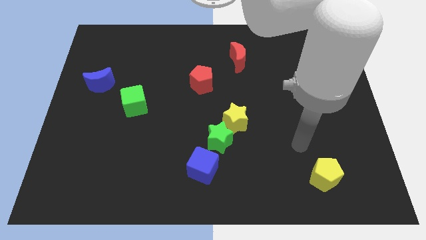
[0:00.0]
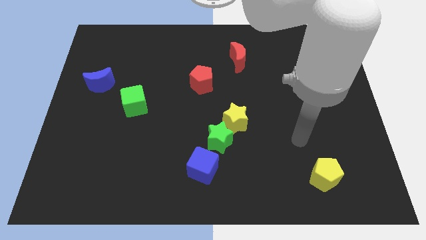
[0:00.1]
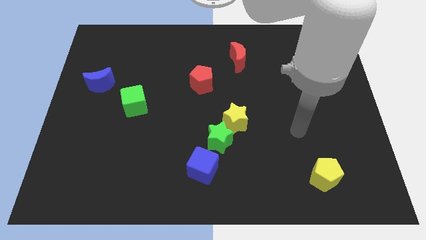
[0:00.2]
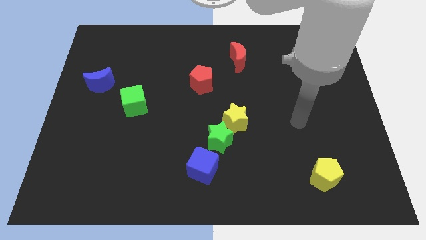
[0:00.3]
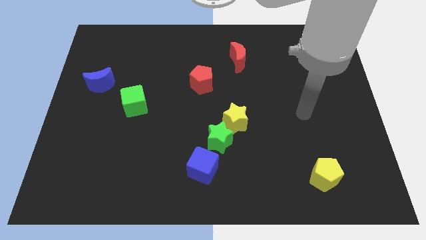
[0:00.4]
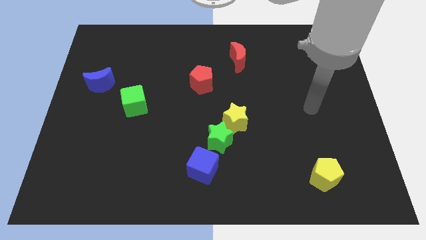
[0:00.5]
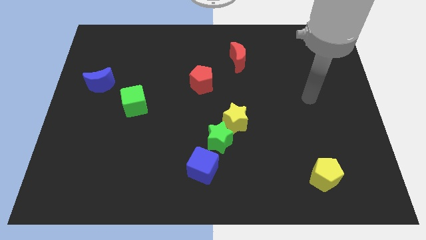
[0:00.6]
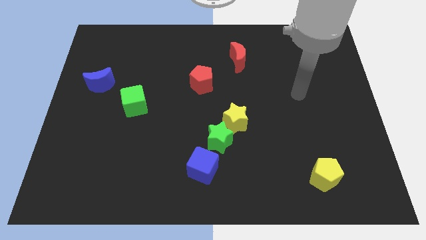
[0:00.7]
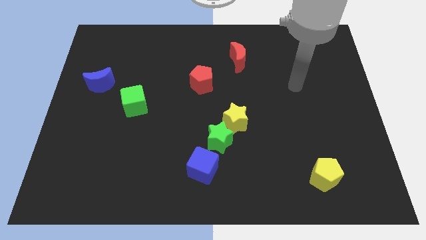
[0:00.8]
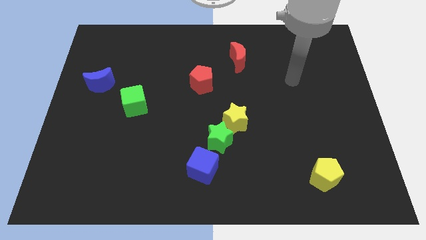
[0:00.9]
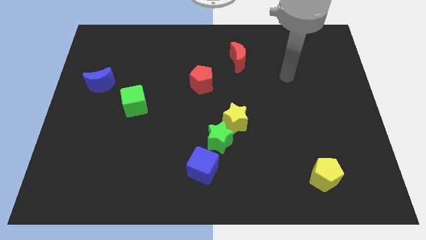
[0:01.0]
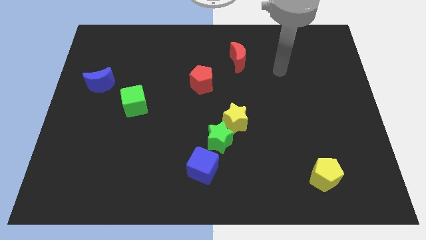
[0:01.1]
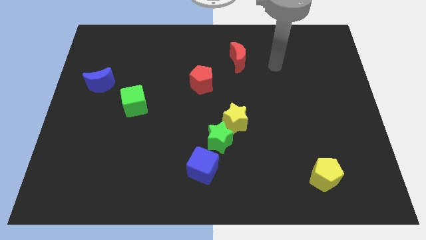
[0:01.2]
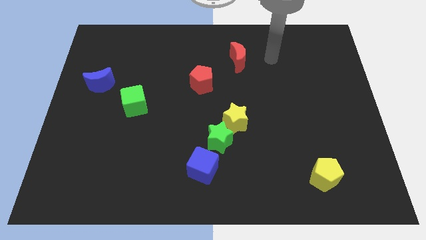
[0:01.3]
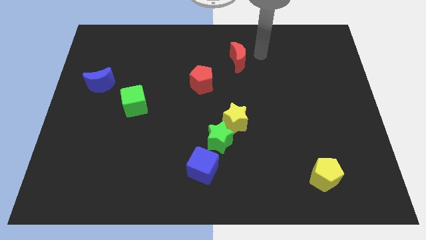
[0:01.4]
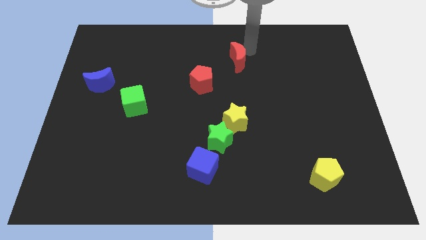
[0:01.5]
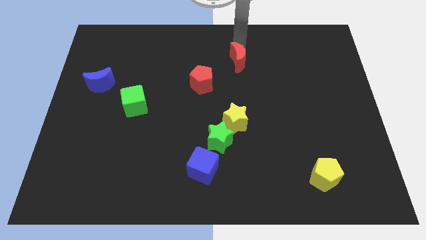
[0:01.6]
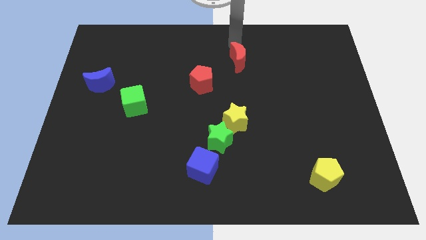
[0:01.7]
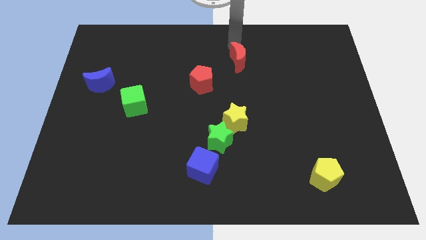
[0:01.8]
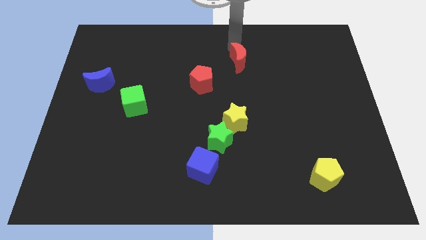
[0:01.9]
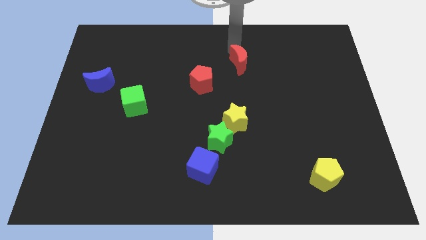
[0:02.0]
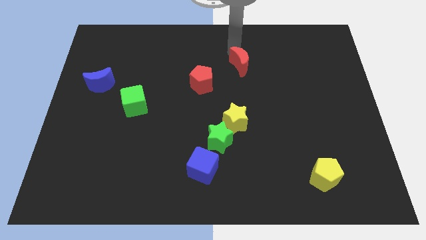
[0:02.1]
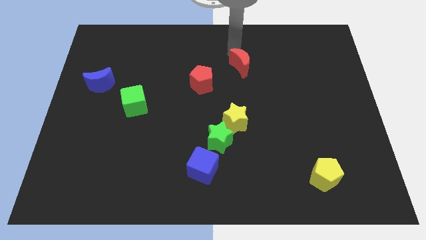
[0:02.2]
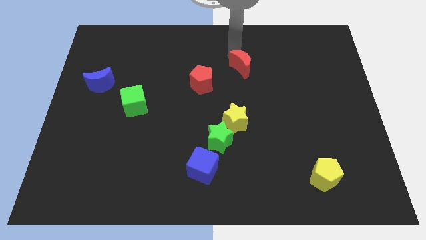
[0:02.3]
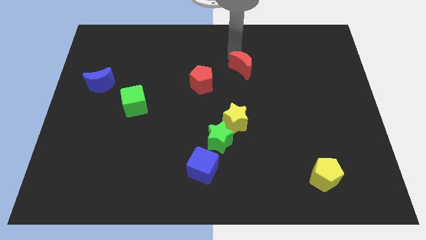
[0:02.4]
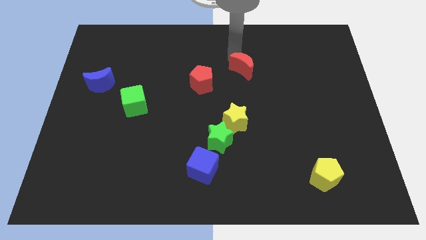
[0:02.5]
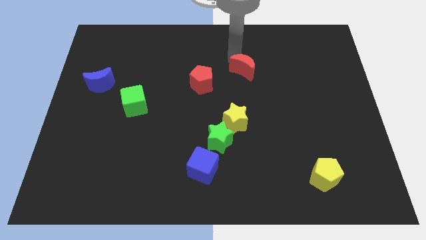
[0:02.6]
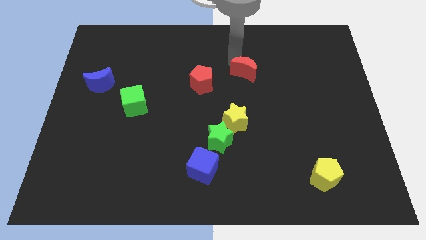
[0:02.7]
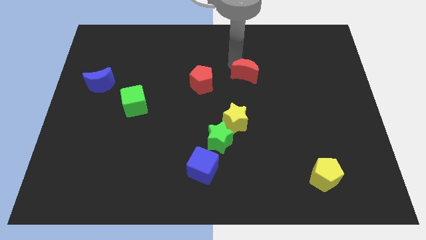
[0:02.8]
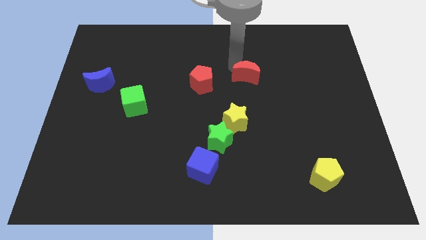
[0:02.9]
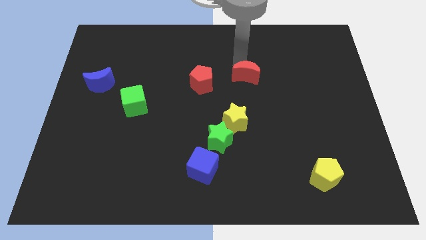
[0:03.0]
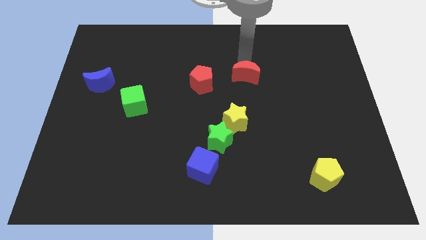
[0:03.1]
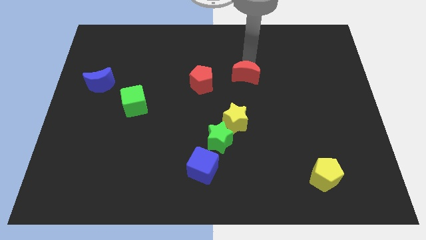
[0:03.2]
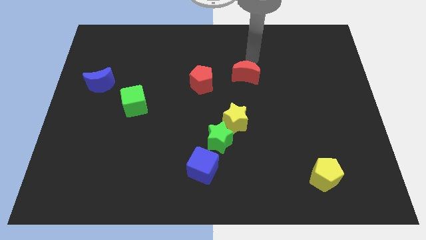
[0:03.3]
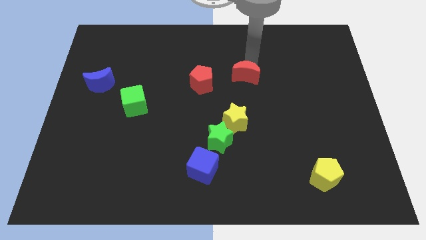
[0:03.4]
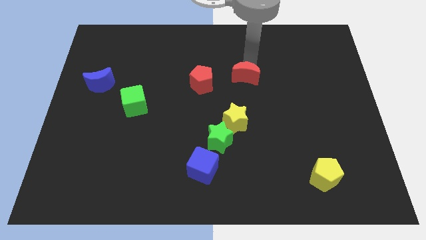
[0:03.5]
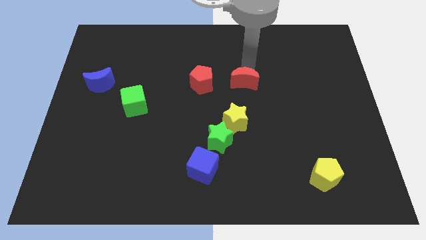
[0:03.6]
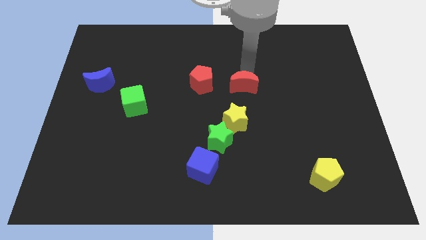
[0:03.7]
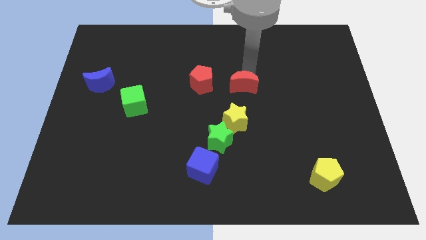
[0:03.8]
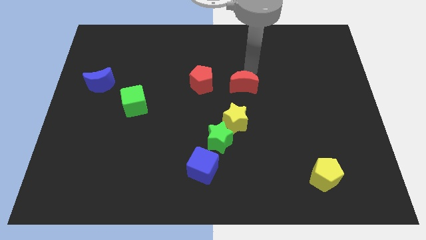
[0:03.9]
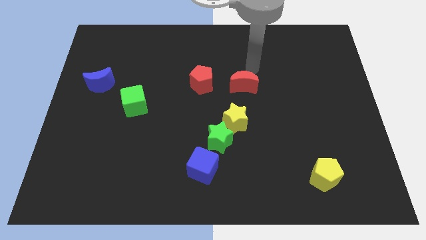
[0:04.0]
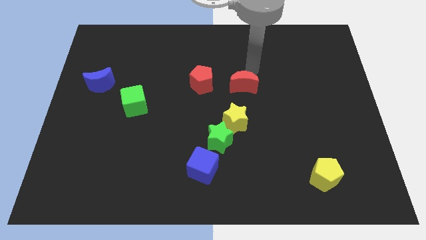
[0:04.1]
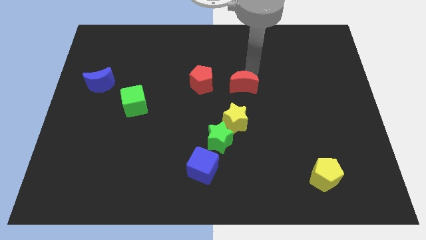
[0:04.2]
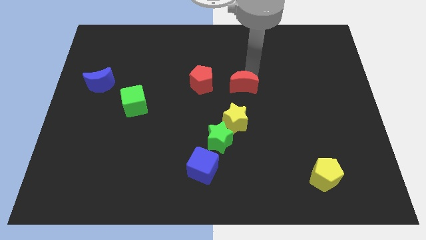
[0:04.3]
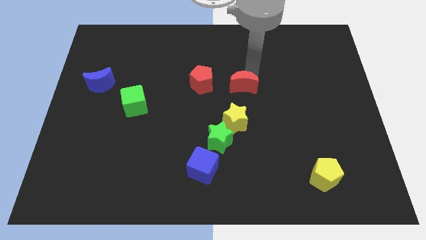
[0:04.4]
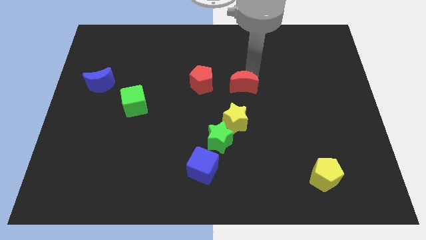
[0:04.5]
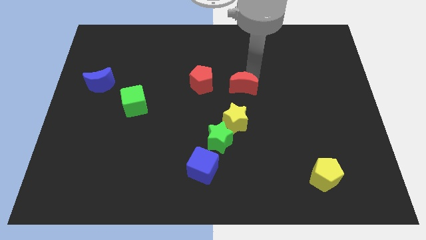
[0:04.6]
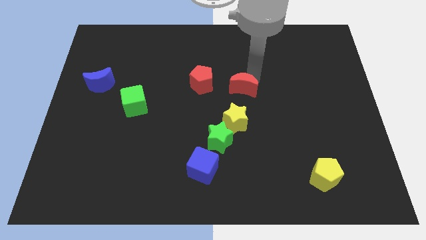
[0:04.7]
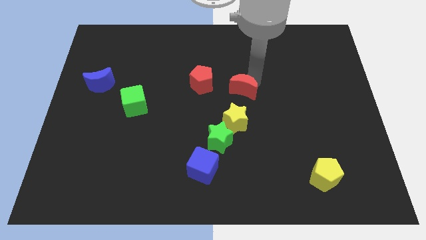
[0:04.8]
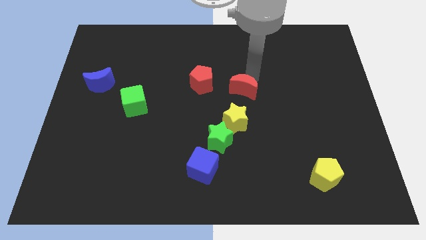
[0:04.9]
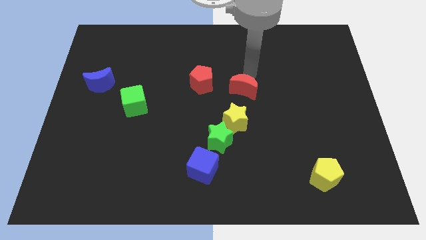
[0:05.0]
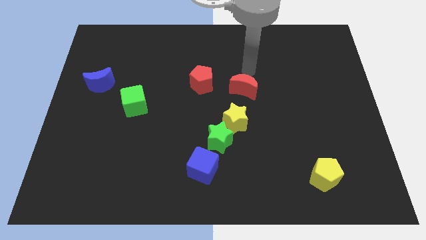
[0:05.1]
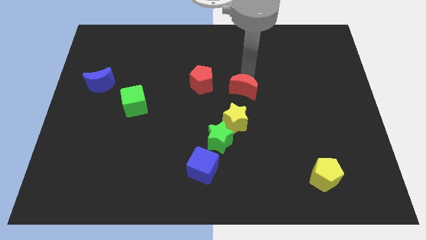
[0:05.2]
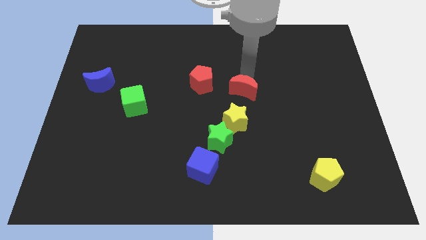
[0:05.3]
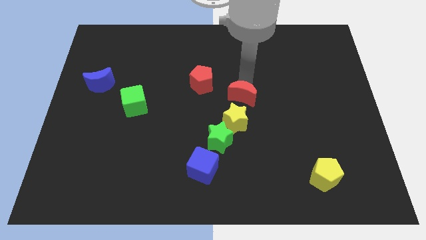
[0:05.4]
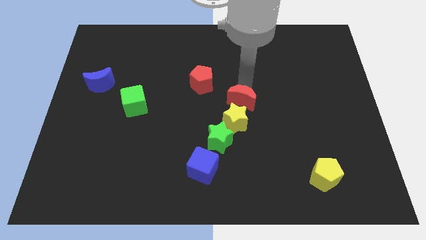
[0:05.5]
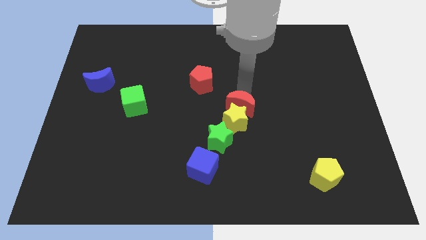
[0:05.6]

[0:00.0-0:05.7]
put the red moon to the yellow star

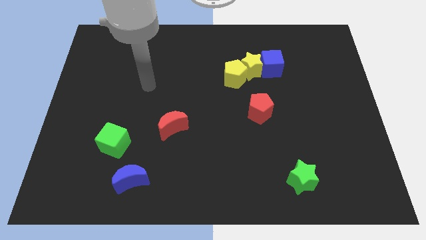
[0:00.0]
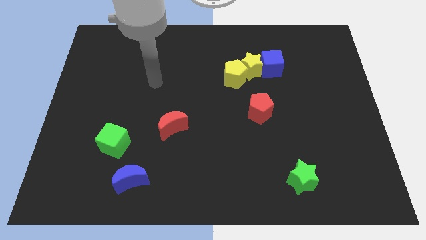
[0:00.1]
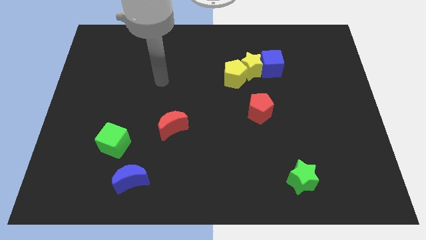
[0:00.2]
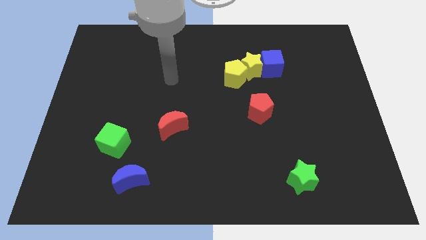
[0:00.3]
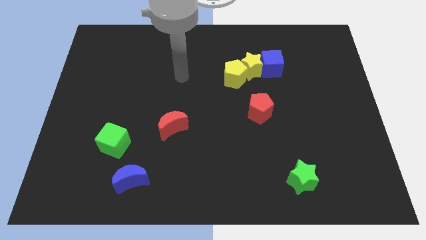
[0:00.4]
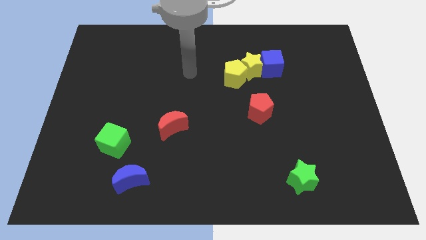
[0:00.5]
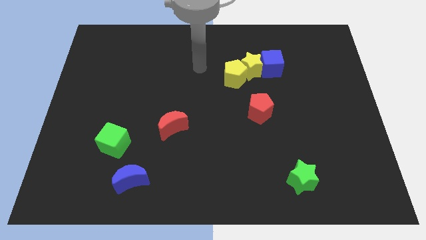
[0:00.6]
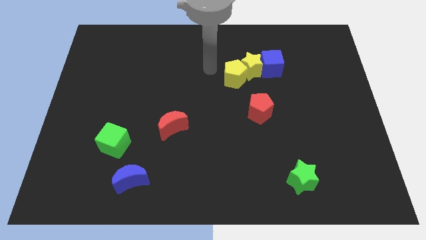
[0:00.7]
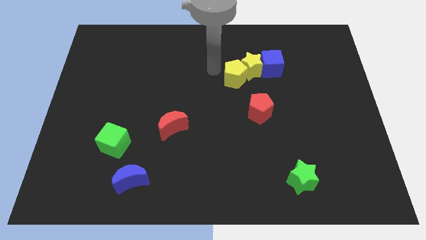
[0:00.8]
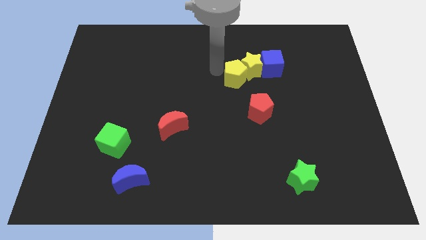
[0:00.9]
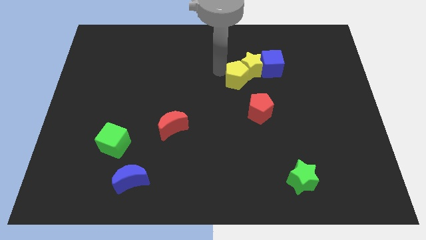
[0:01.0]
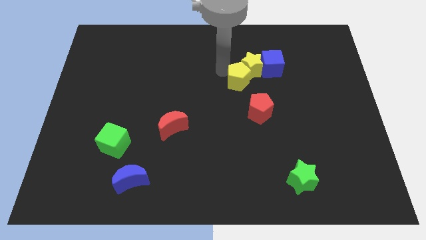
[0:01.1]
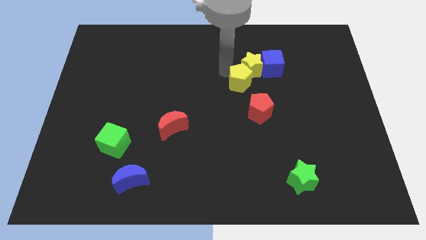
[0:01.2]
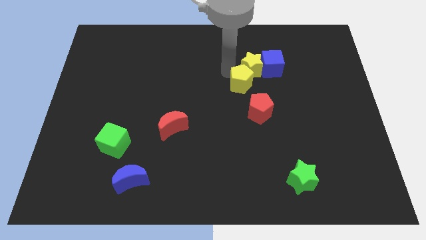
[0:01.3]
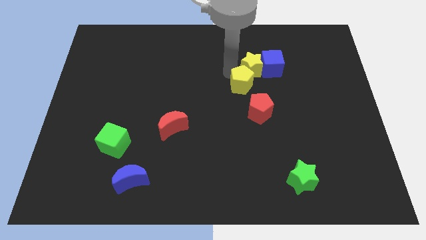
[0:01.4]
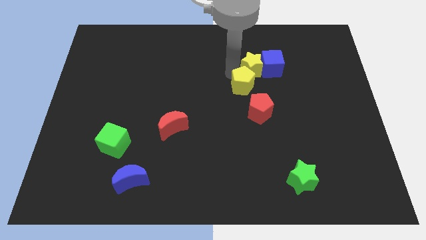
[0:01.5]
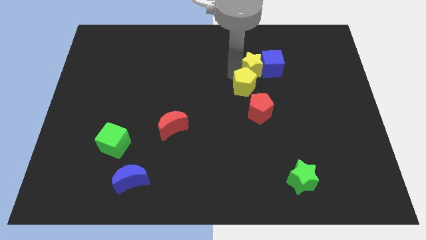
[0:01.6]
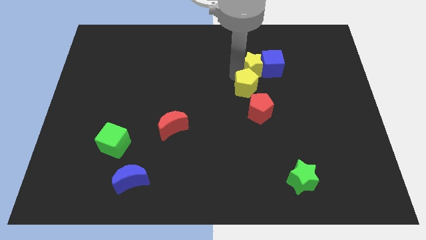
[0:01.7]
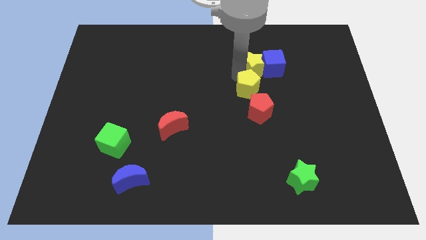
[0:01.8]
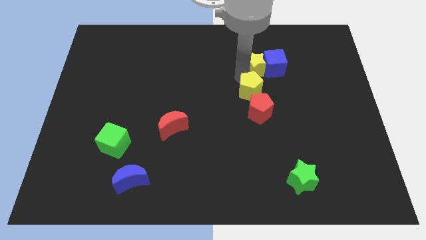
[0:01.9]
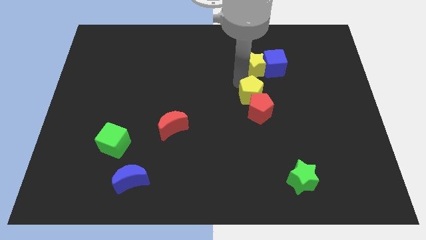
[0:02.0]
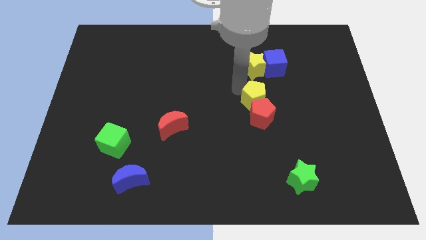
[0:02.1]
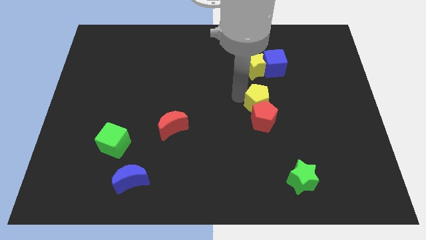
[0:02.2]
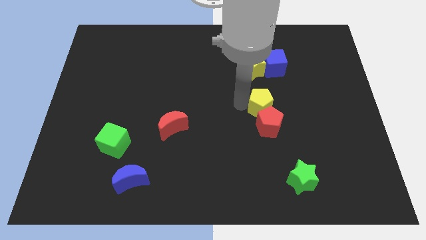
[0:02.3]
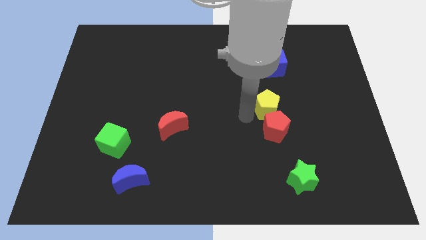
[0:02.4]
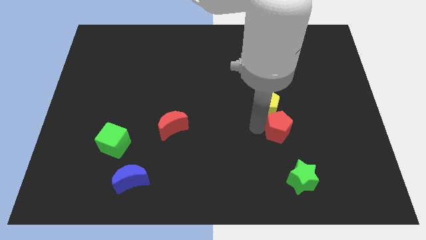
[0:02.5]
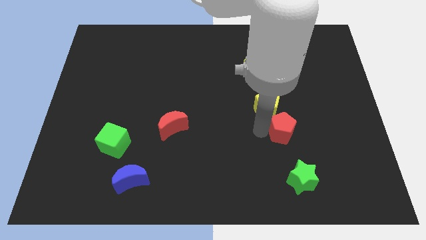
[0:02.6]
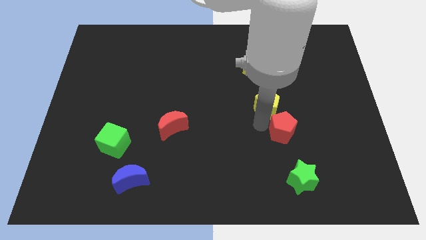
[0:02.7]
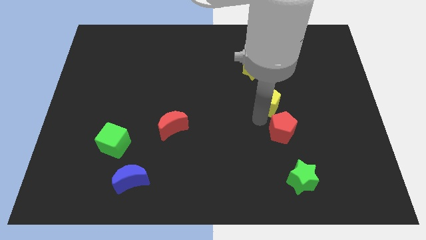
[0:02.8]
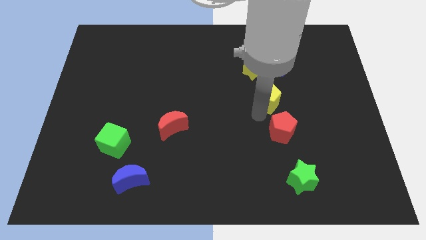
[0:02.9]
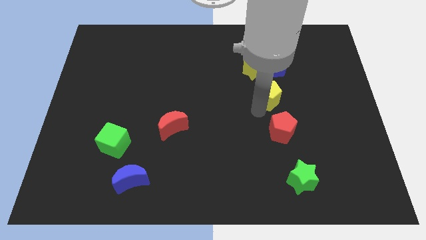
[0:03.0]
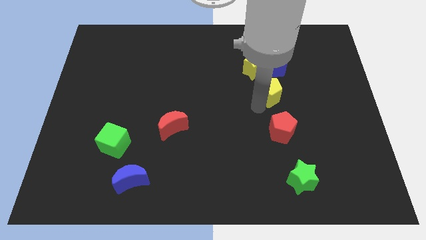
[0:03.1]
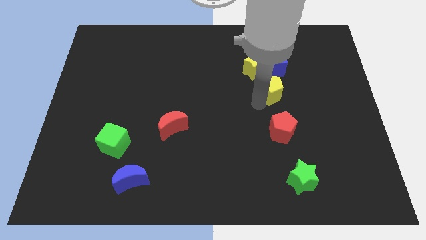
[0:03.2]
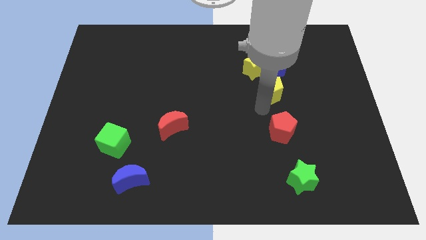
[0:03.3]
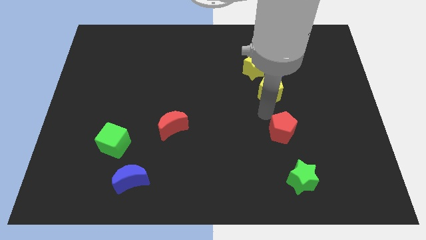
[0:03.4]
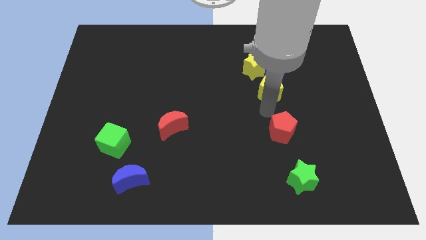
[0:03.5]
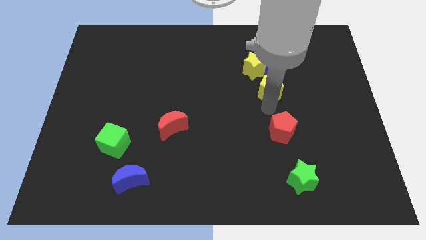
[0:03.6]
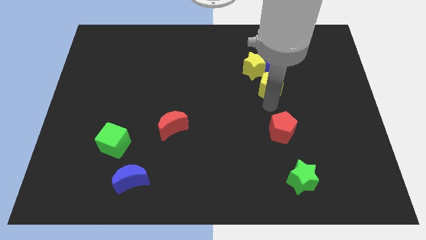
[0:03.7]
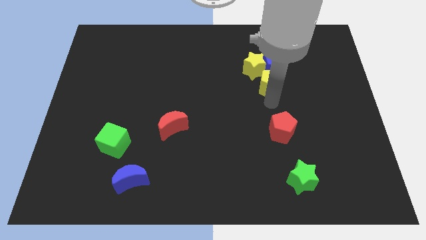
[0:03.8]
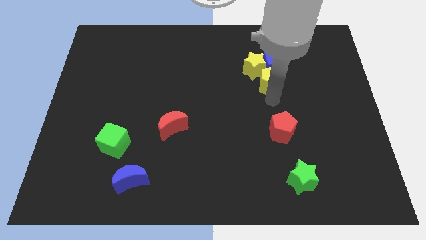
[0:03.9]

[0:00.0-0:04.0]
slide the yellow pentagon towards the blue cube
